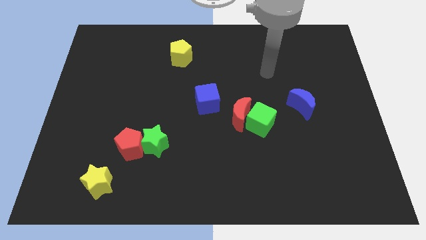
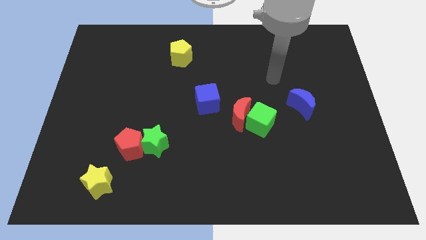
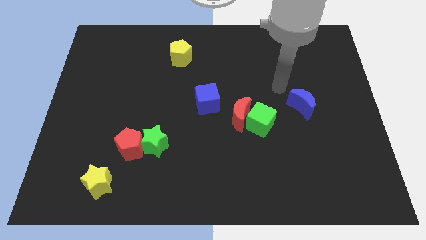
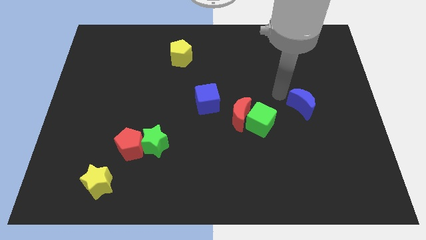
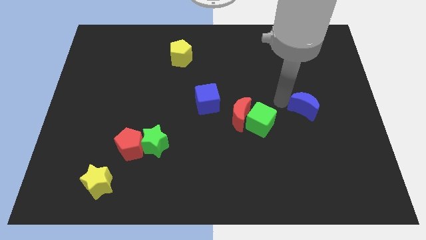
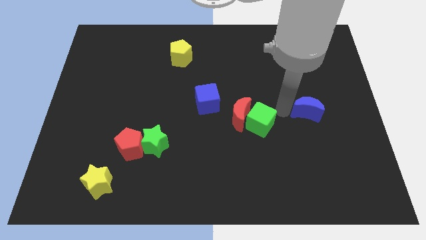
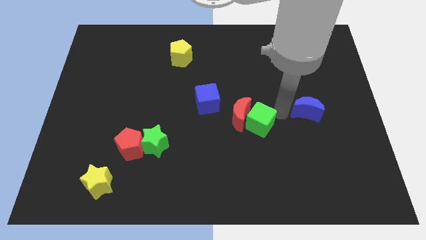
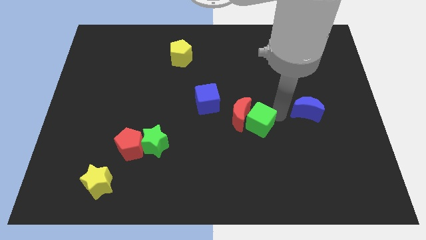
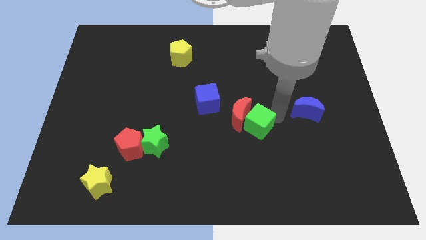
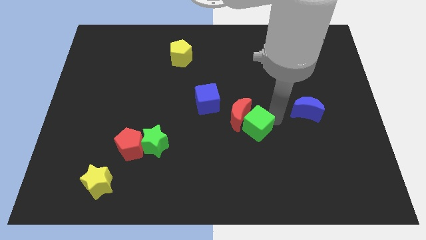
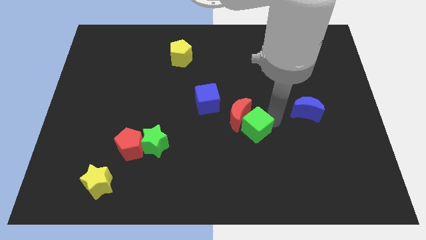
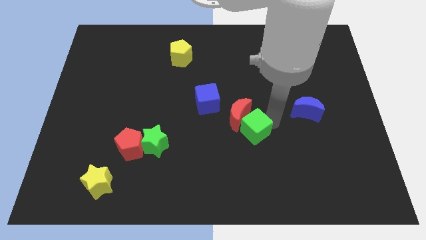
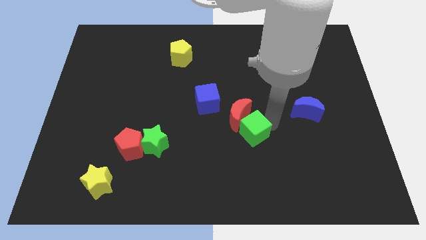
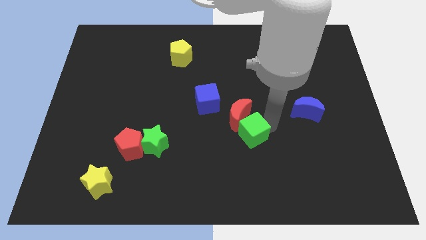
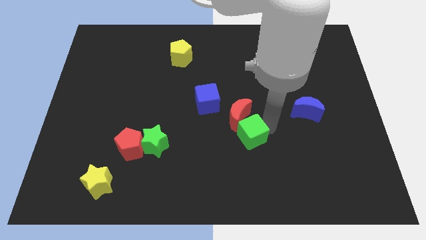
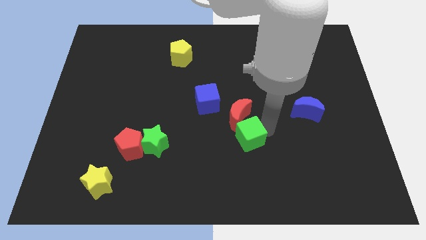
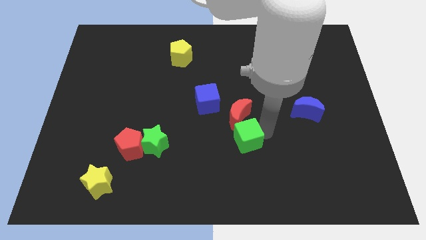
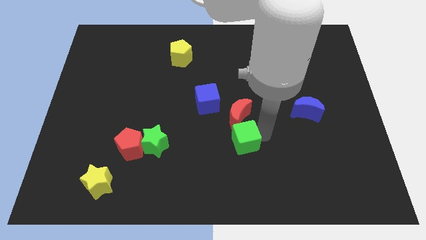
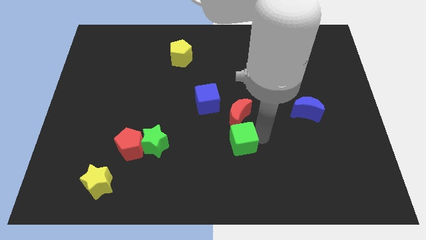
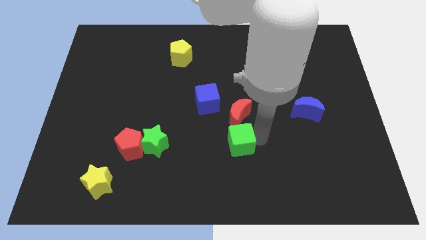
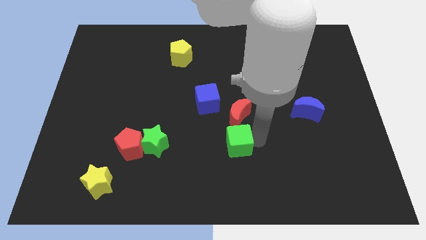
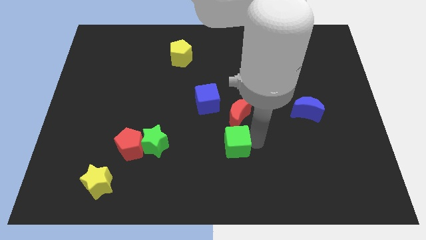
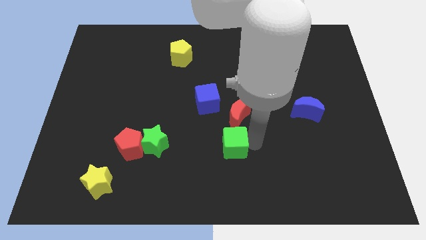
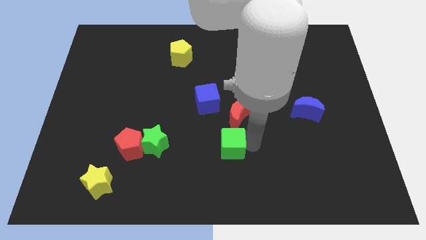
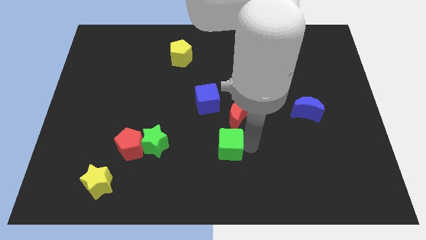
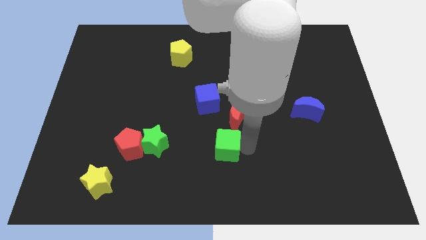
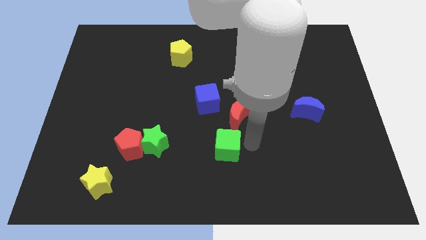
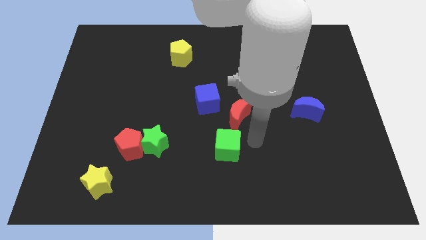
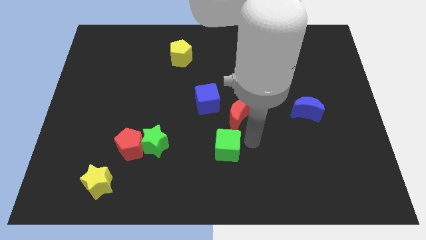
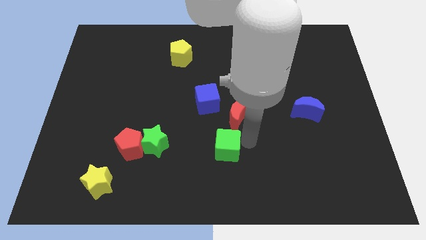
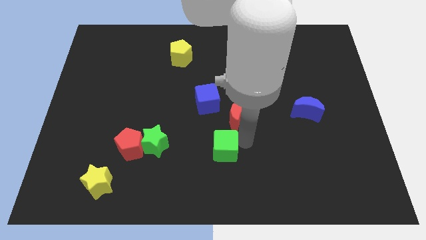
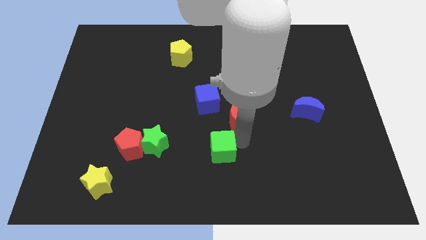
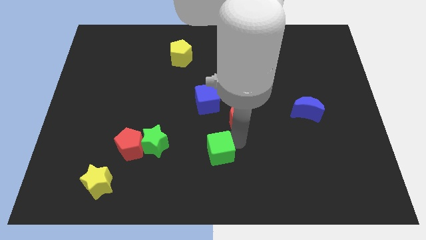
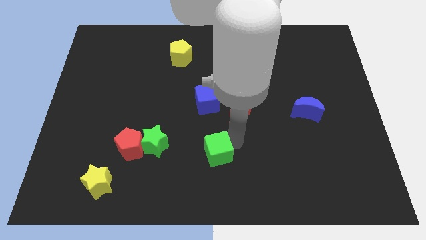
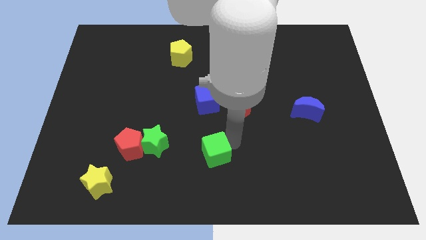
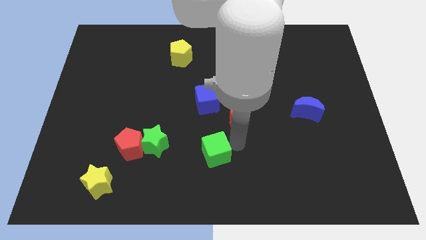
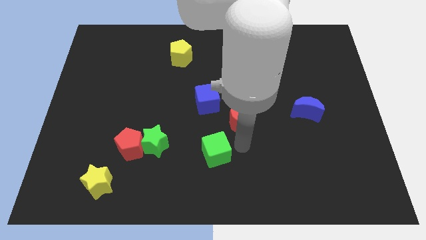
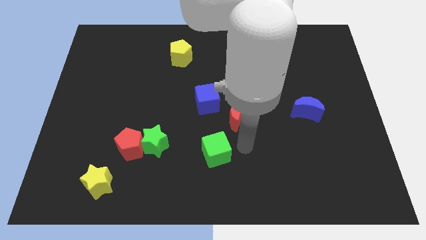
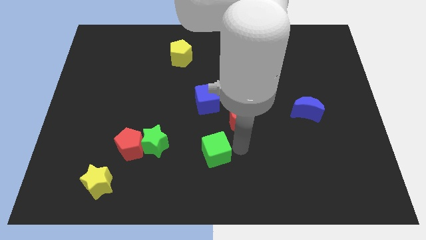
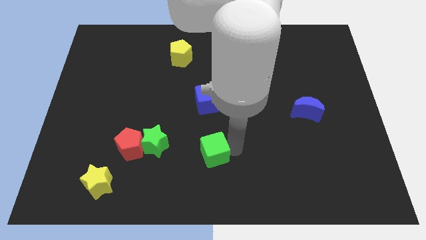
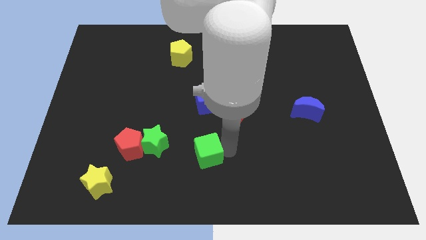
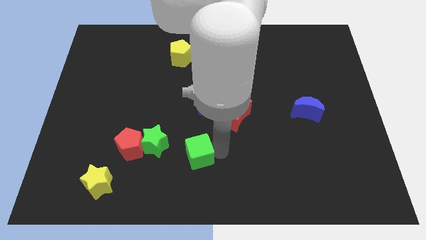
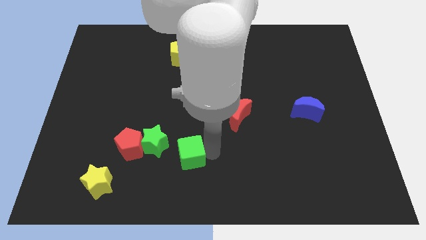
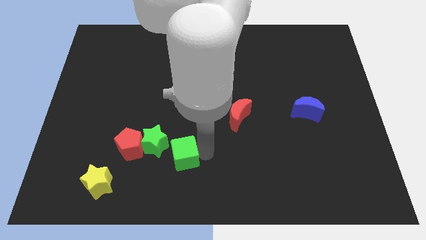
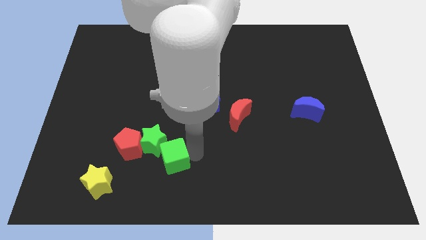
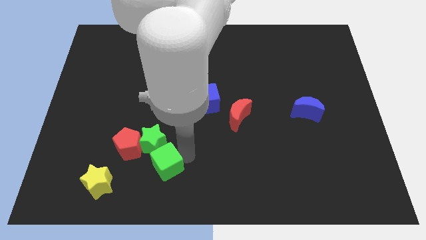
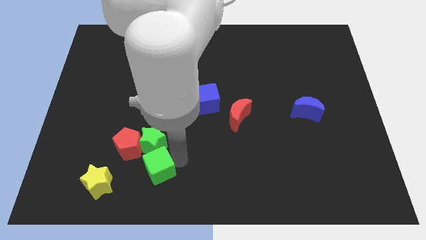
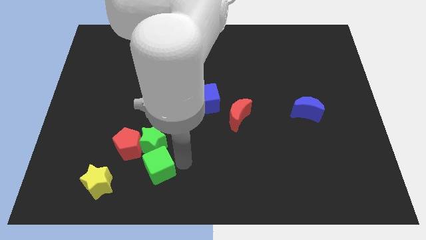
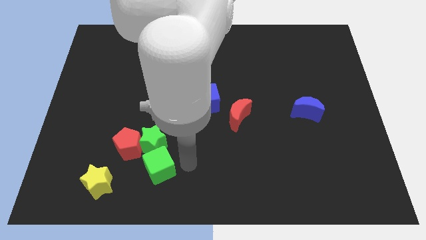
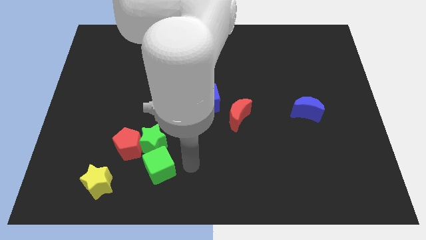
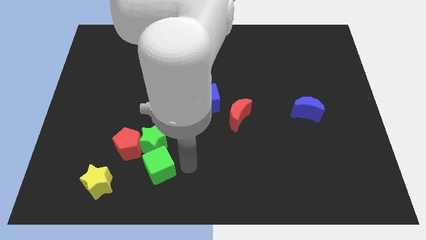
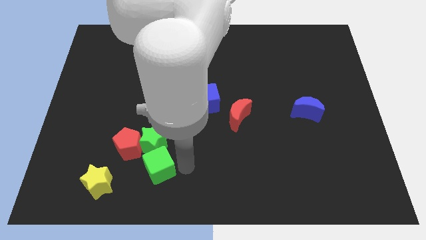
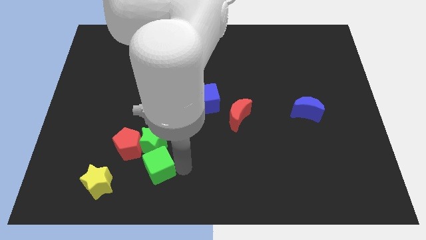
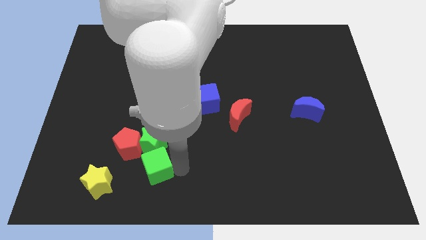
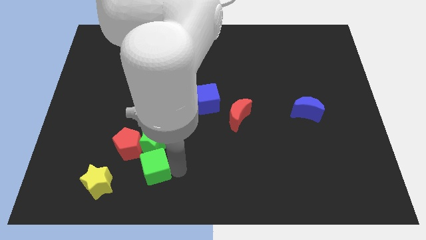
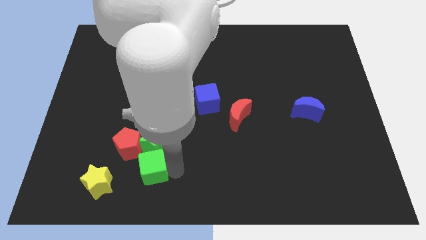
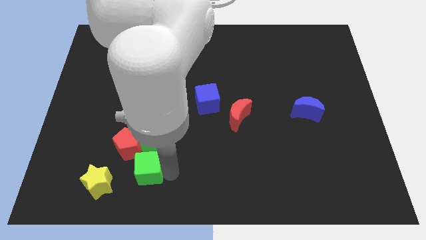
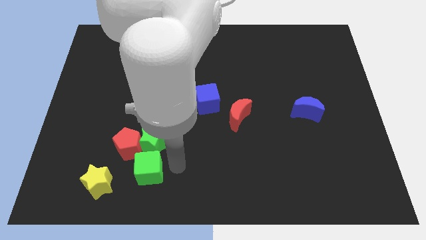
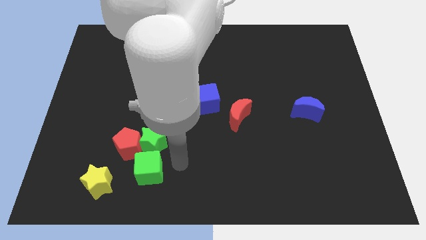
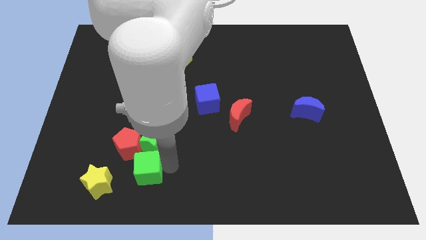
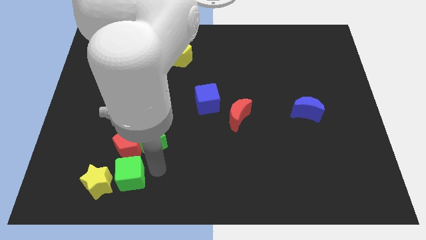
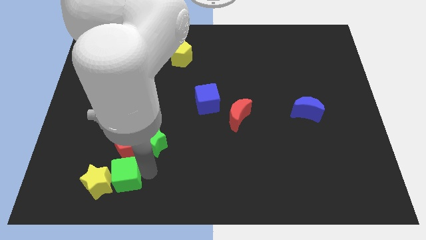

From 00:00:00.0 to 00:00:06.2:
slide the green cube close to the yellow star
